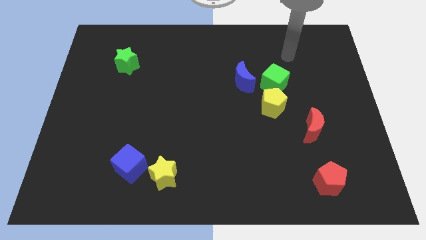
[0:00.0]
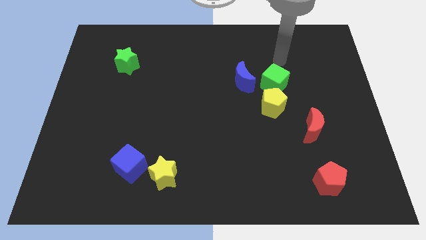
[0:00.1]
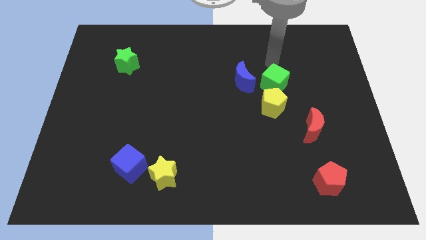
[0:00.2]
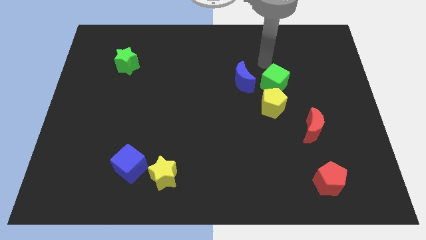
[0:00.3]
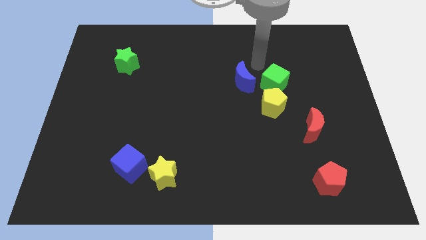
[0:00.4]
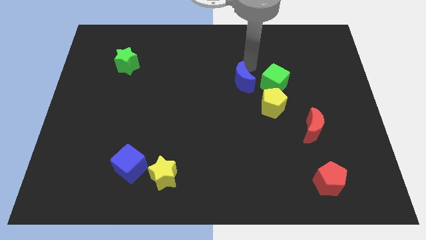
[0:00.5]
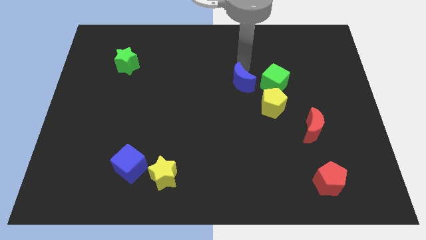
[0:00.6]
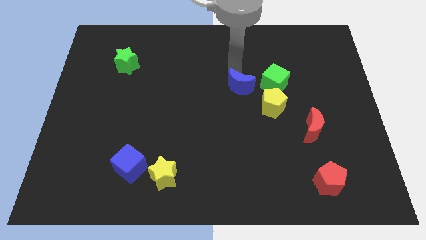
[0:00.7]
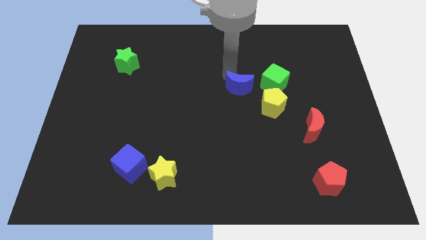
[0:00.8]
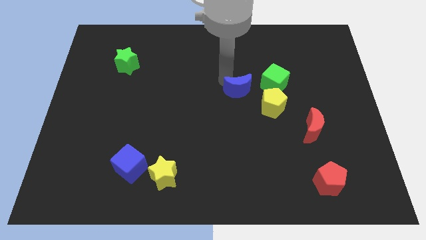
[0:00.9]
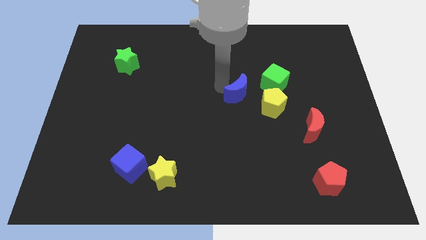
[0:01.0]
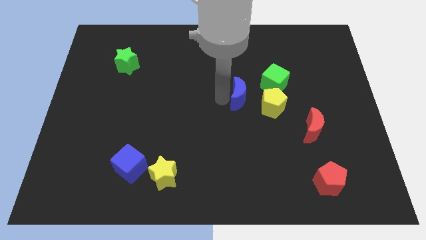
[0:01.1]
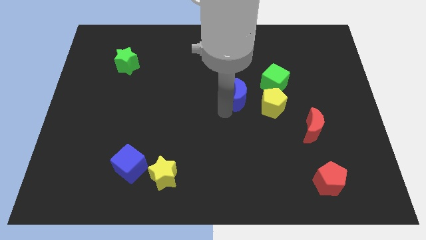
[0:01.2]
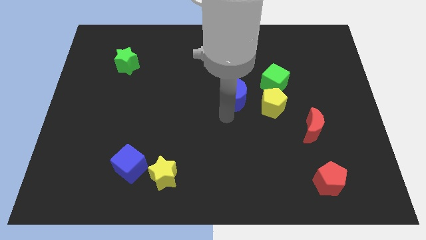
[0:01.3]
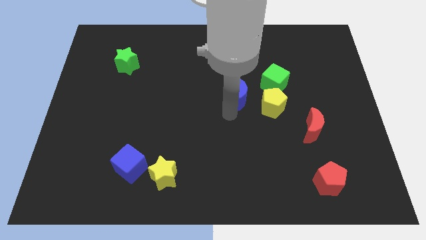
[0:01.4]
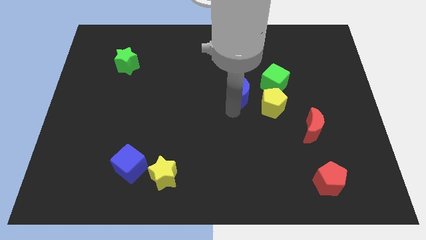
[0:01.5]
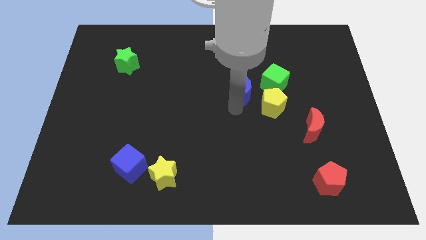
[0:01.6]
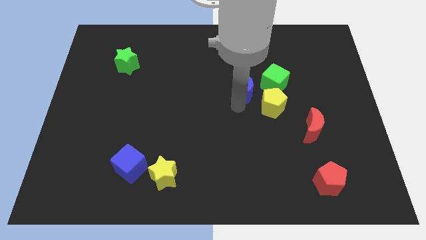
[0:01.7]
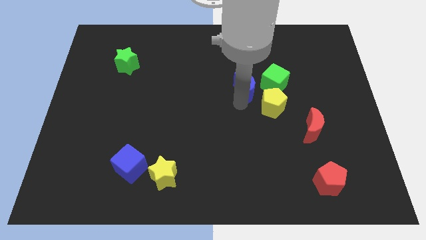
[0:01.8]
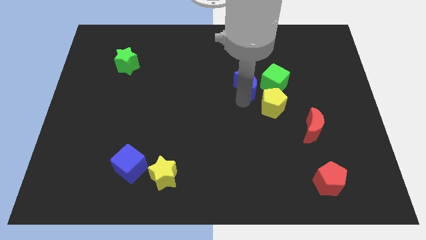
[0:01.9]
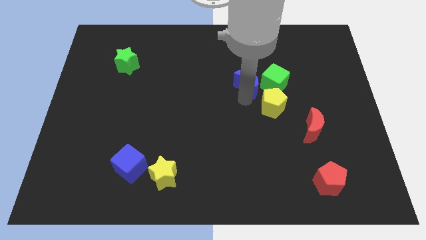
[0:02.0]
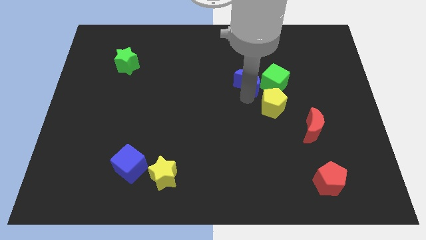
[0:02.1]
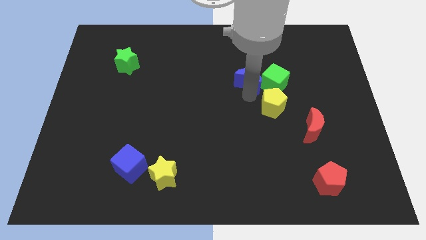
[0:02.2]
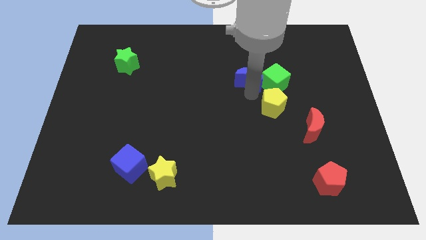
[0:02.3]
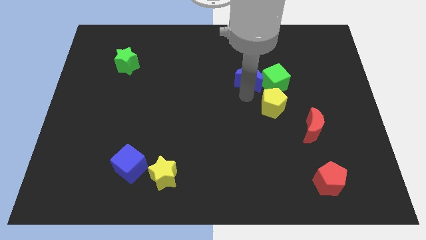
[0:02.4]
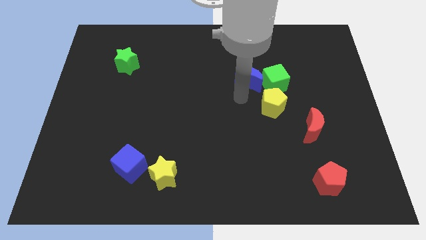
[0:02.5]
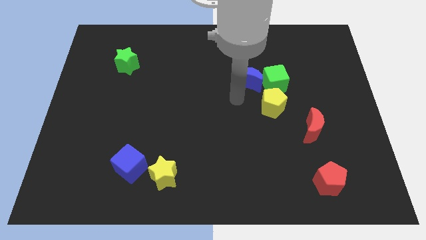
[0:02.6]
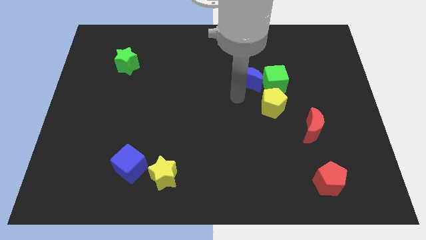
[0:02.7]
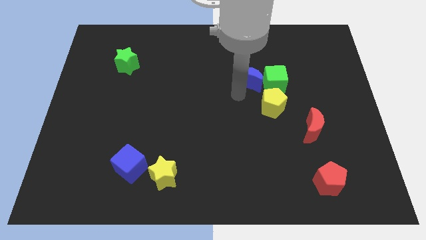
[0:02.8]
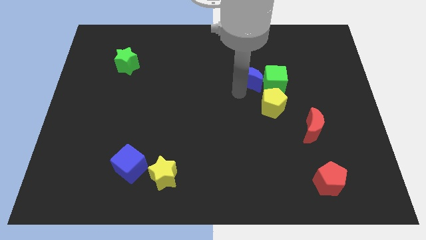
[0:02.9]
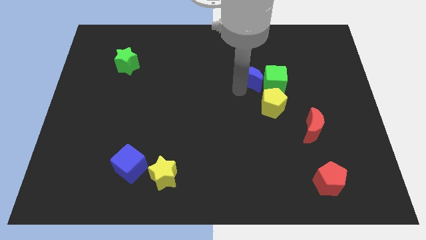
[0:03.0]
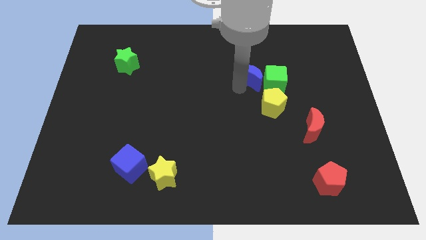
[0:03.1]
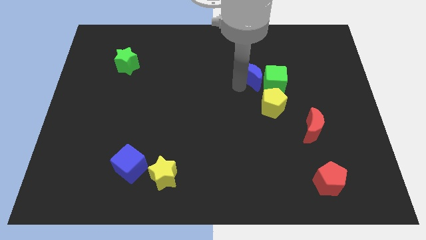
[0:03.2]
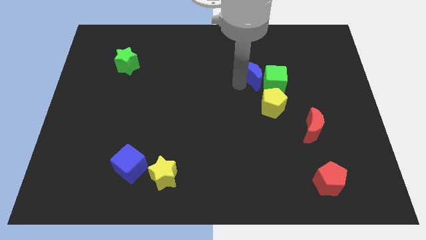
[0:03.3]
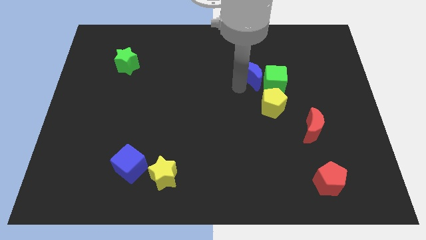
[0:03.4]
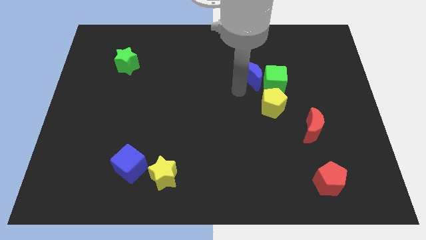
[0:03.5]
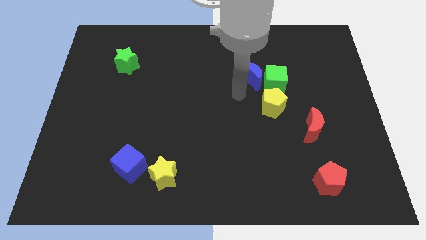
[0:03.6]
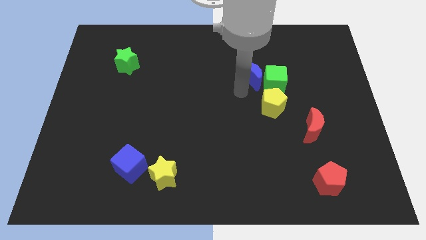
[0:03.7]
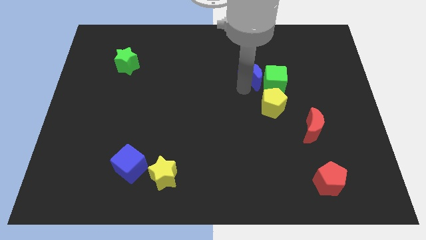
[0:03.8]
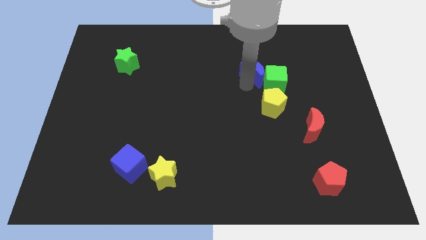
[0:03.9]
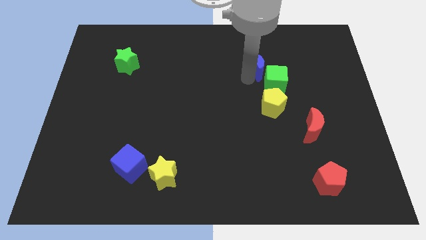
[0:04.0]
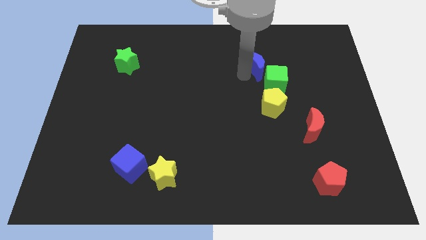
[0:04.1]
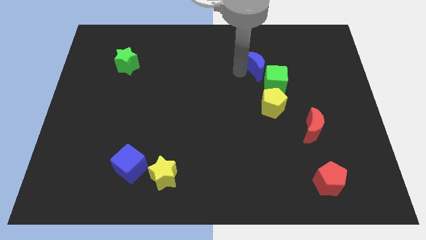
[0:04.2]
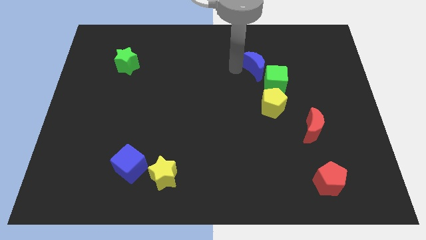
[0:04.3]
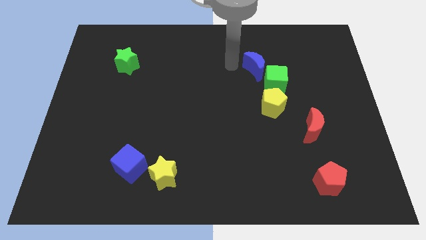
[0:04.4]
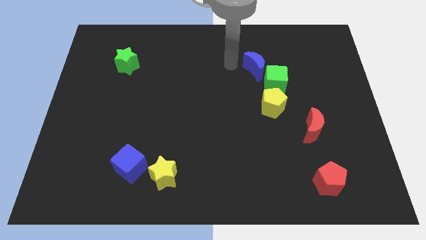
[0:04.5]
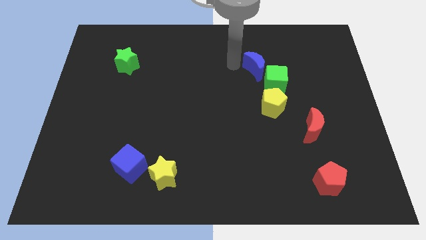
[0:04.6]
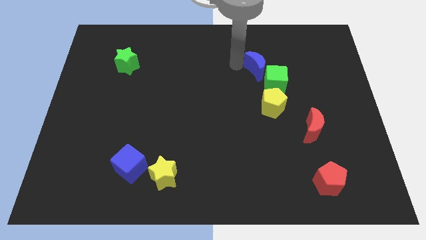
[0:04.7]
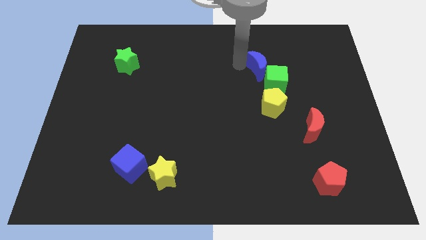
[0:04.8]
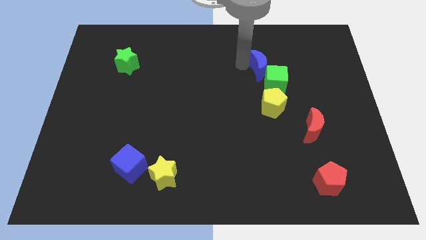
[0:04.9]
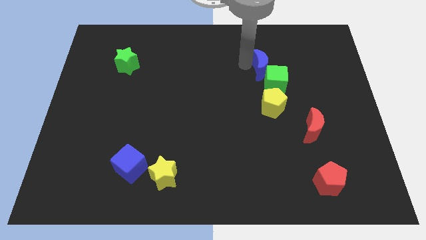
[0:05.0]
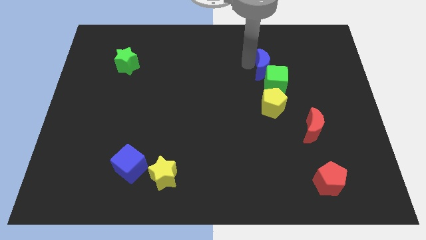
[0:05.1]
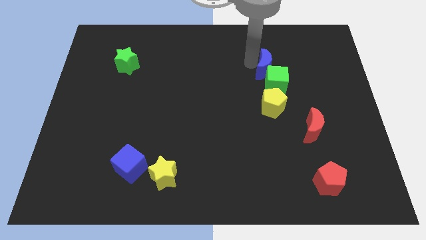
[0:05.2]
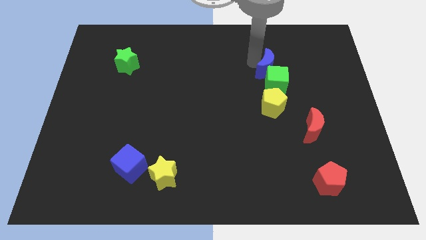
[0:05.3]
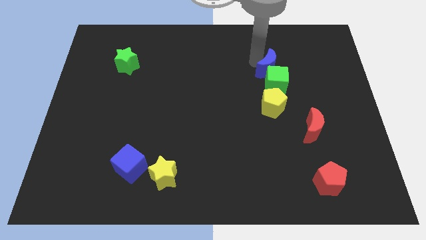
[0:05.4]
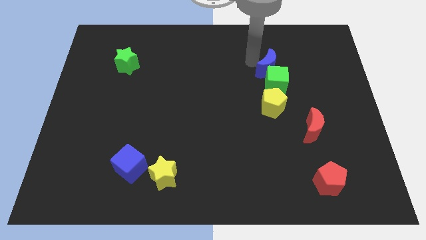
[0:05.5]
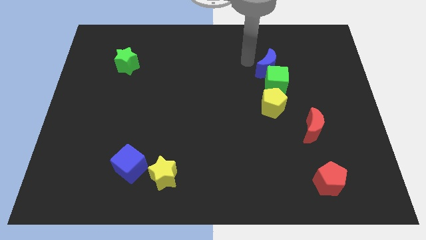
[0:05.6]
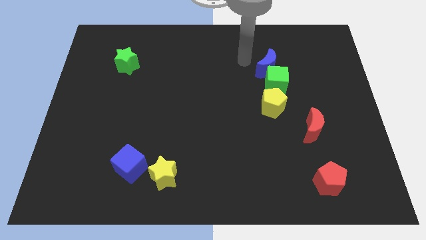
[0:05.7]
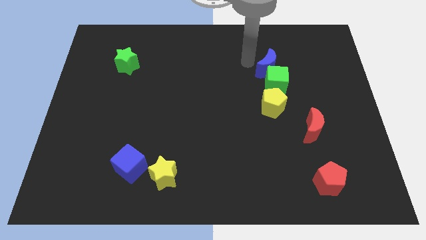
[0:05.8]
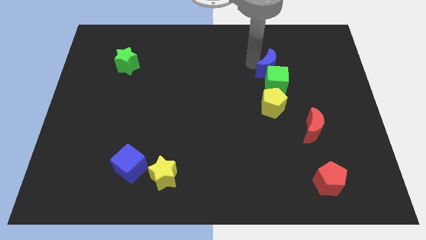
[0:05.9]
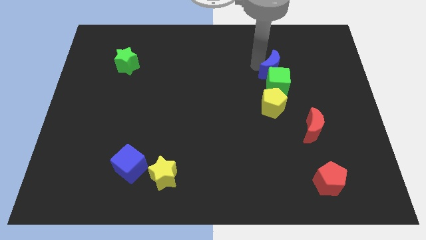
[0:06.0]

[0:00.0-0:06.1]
slightly slide the blue moon to the right

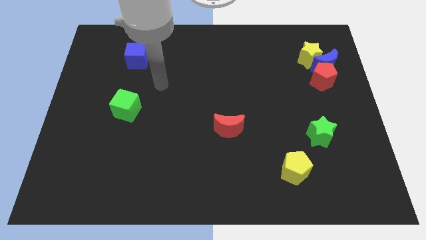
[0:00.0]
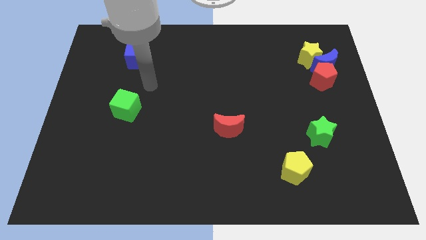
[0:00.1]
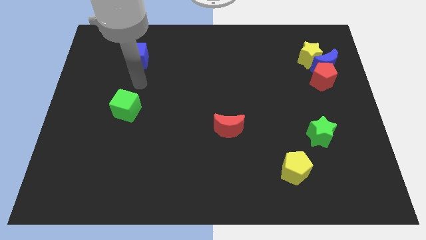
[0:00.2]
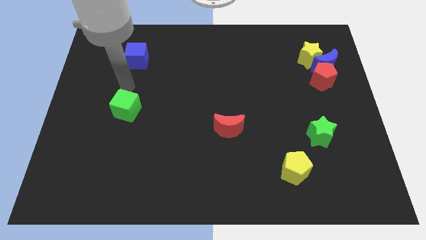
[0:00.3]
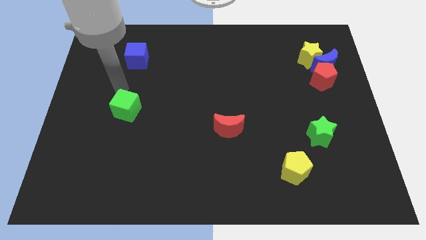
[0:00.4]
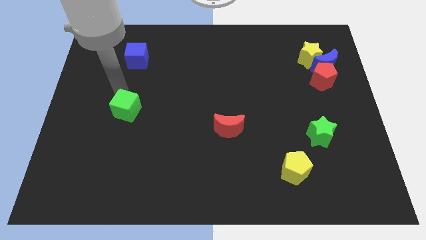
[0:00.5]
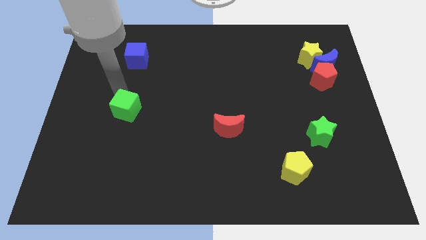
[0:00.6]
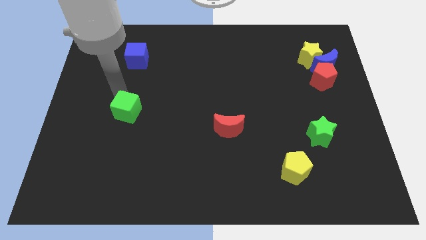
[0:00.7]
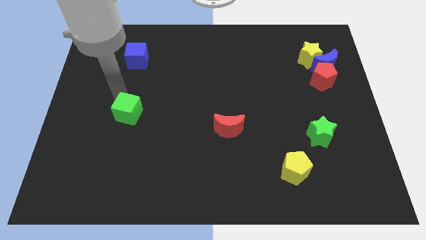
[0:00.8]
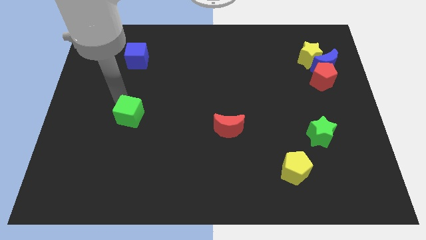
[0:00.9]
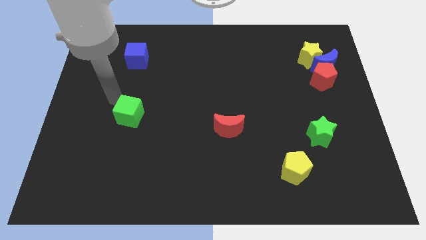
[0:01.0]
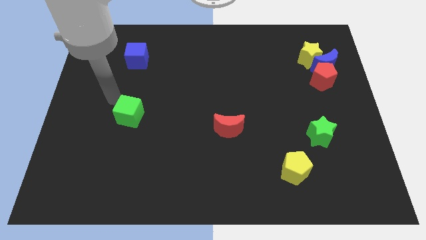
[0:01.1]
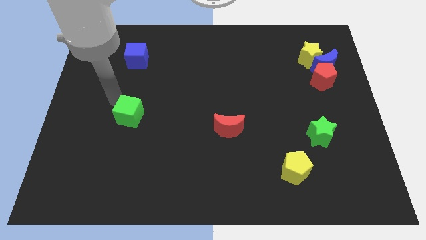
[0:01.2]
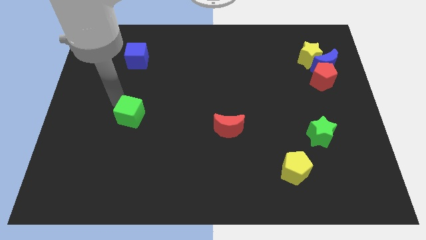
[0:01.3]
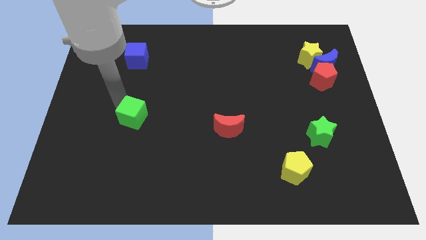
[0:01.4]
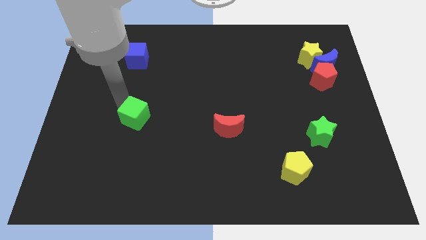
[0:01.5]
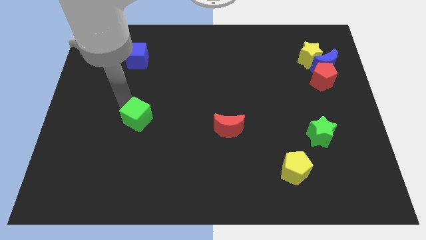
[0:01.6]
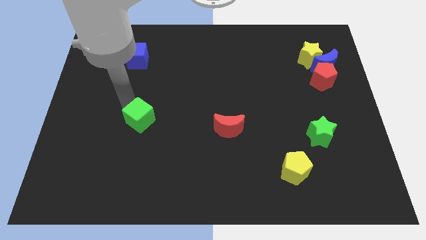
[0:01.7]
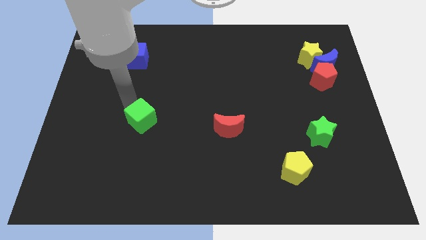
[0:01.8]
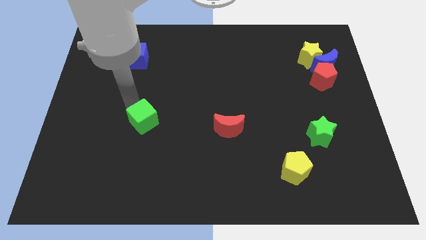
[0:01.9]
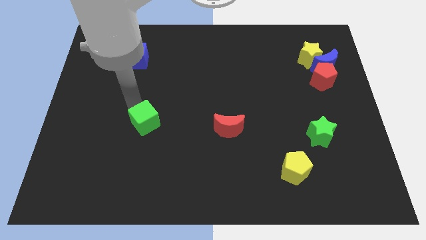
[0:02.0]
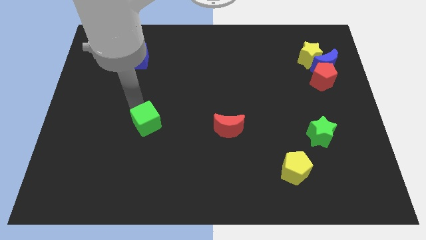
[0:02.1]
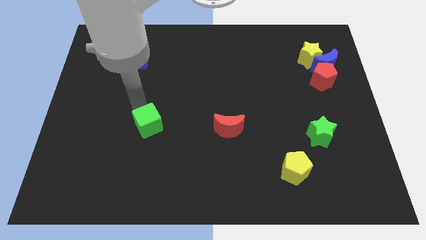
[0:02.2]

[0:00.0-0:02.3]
slide the green cube slightly down and to the right
